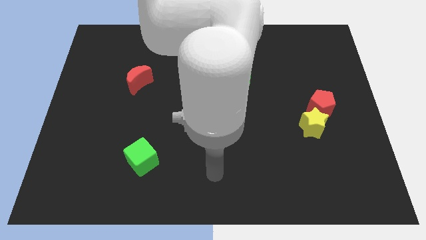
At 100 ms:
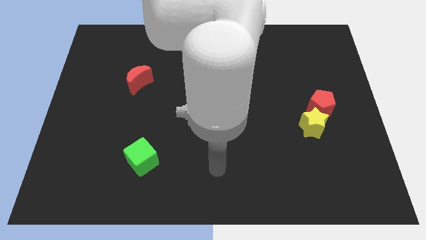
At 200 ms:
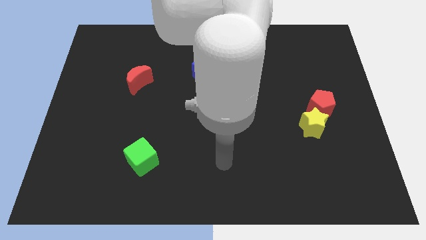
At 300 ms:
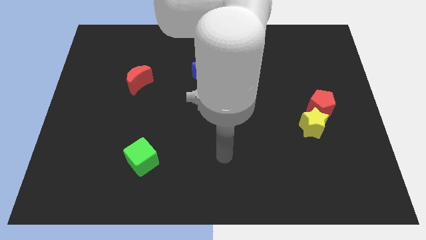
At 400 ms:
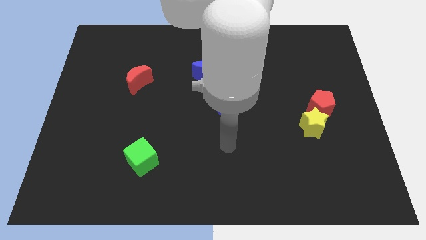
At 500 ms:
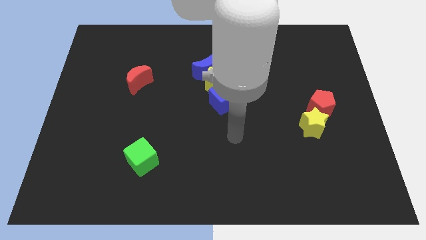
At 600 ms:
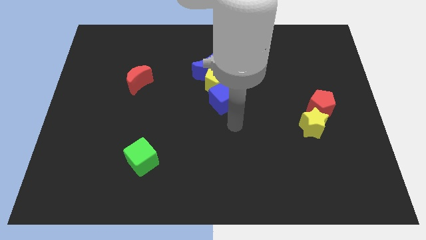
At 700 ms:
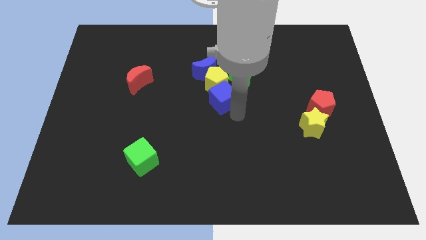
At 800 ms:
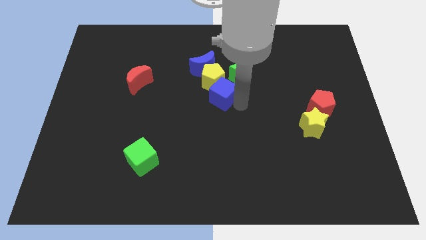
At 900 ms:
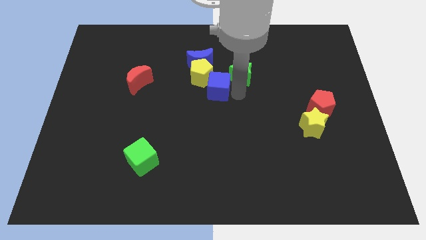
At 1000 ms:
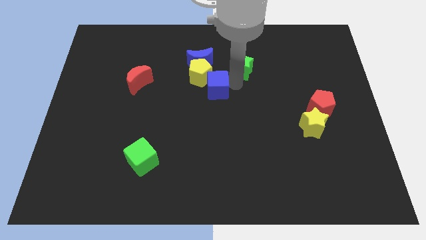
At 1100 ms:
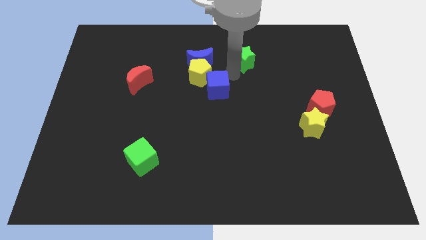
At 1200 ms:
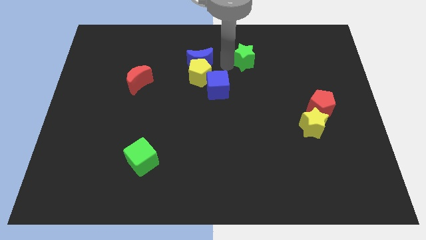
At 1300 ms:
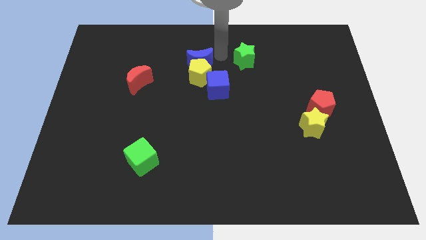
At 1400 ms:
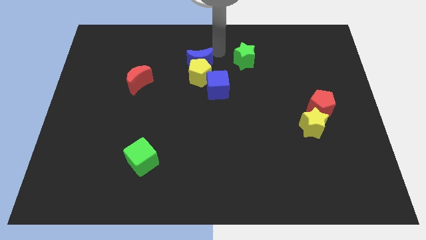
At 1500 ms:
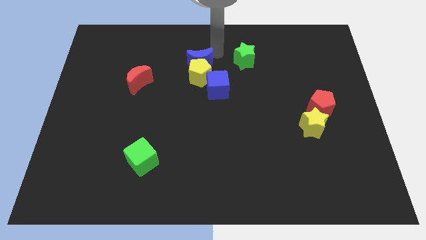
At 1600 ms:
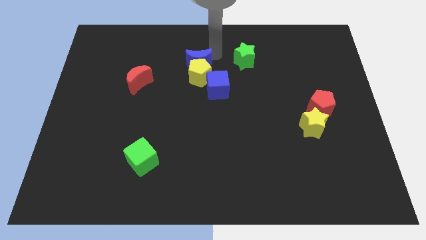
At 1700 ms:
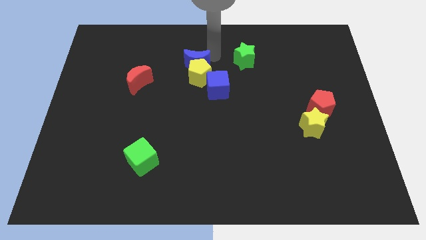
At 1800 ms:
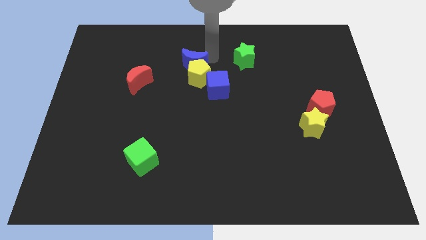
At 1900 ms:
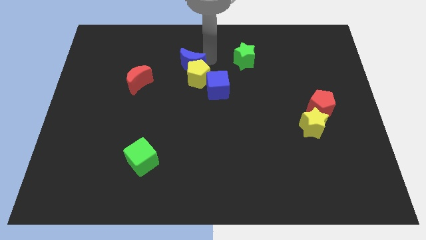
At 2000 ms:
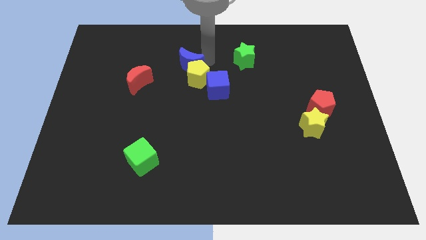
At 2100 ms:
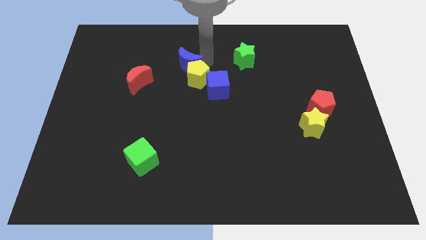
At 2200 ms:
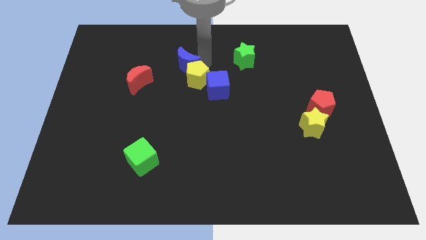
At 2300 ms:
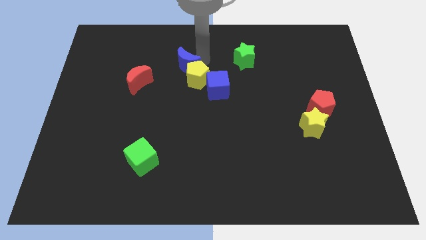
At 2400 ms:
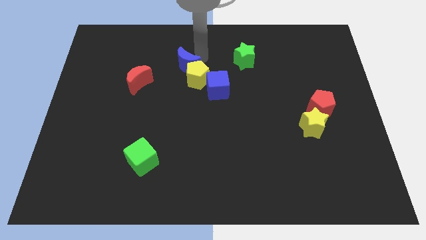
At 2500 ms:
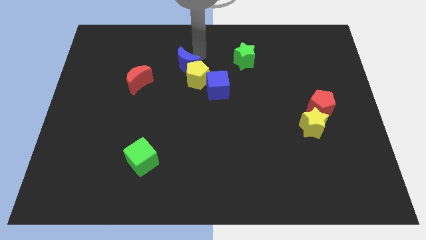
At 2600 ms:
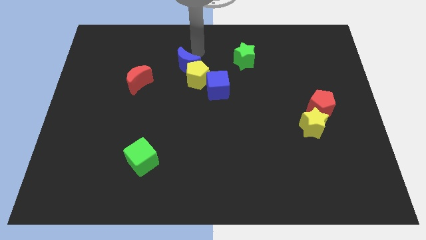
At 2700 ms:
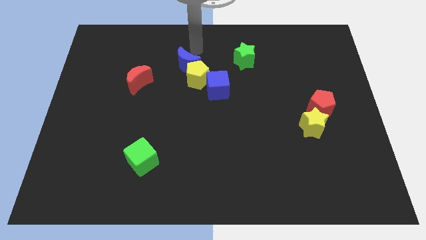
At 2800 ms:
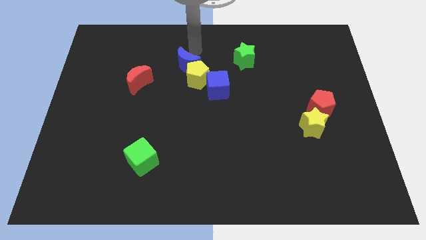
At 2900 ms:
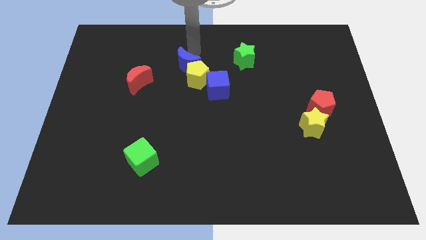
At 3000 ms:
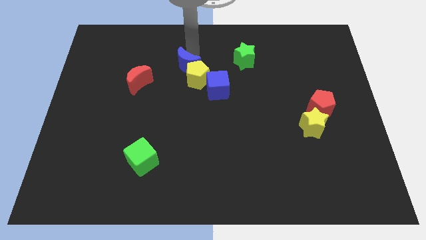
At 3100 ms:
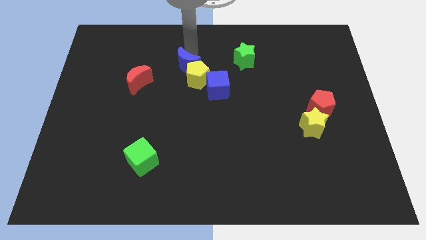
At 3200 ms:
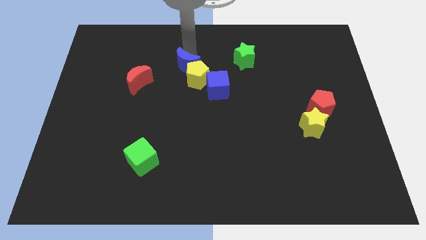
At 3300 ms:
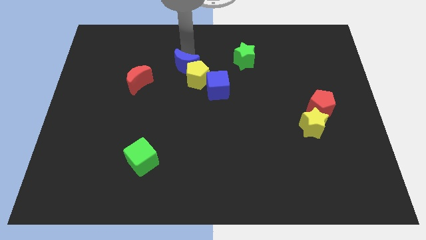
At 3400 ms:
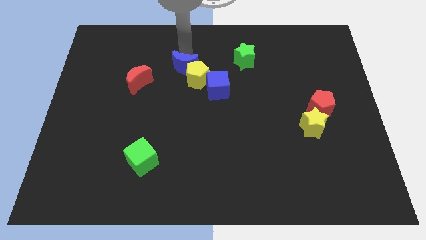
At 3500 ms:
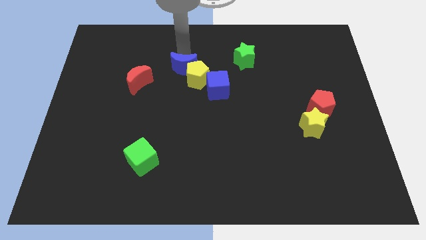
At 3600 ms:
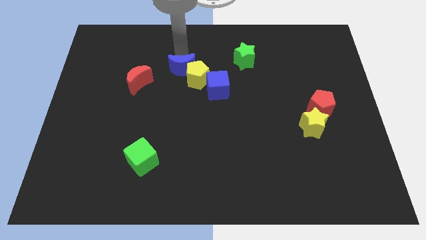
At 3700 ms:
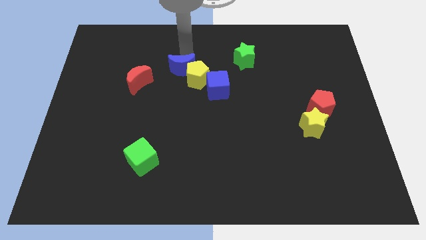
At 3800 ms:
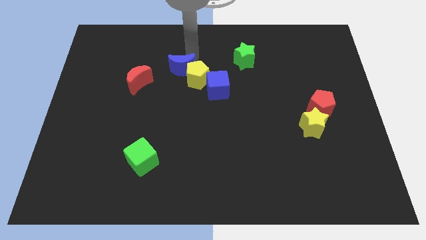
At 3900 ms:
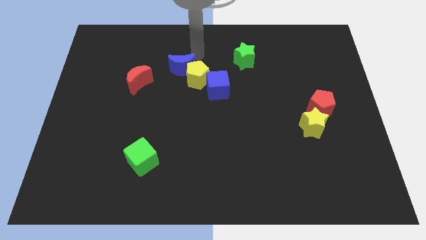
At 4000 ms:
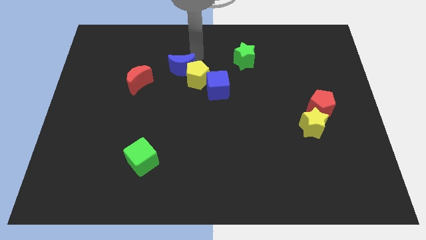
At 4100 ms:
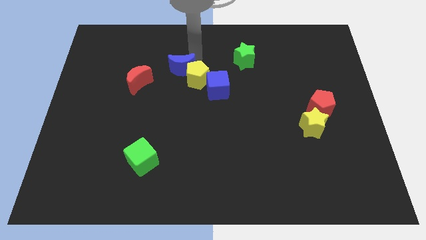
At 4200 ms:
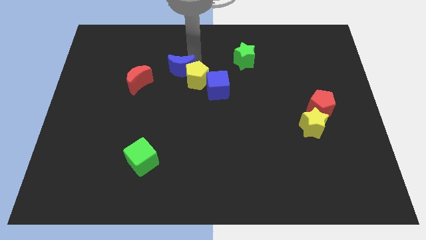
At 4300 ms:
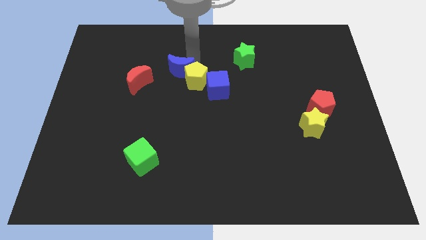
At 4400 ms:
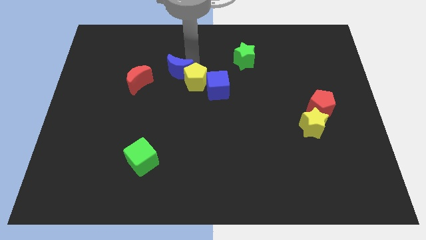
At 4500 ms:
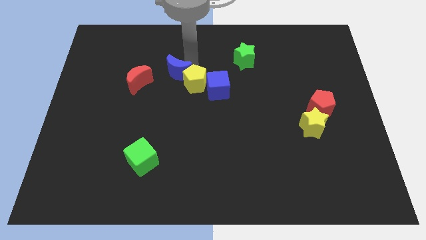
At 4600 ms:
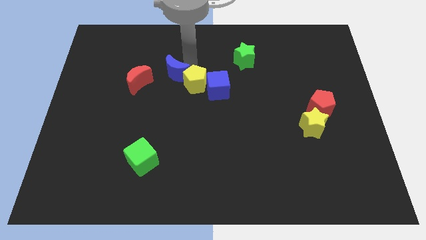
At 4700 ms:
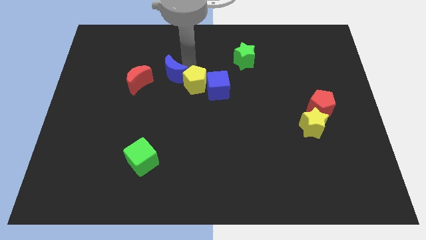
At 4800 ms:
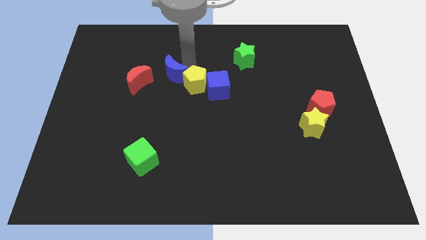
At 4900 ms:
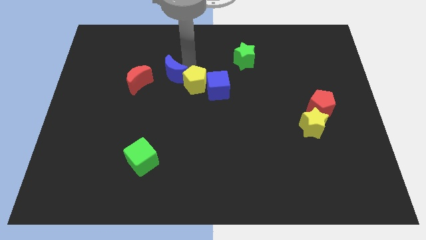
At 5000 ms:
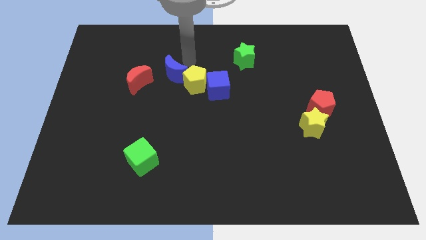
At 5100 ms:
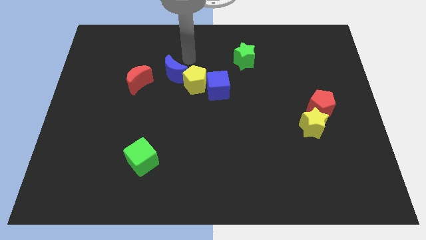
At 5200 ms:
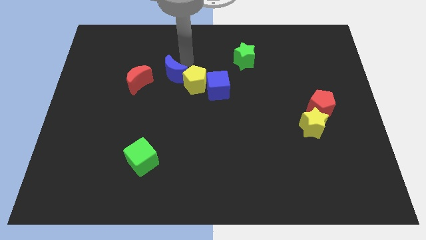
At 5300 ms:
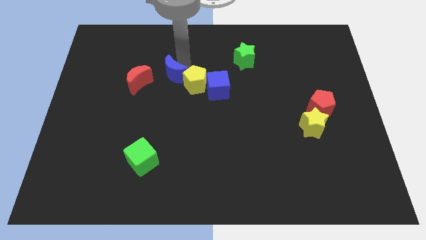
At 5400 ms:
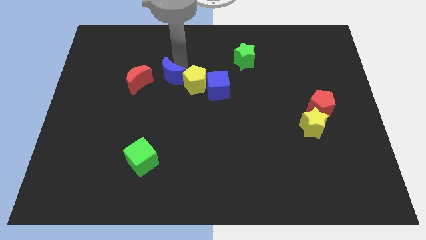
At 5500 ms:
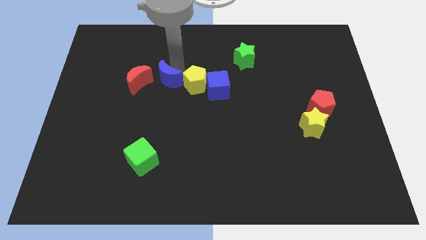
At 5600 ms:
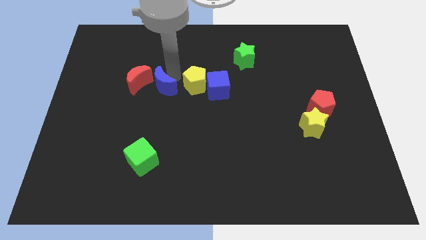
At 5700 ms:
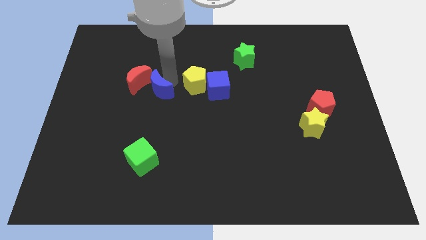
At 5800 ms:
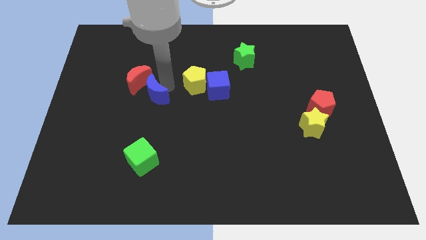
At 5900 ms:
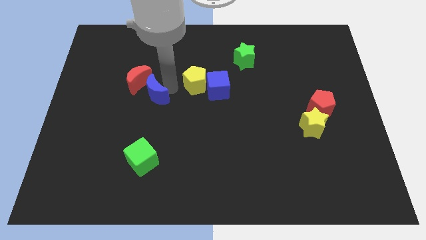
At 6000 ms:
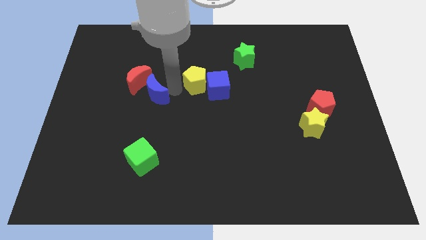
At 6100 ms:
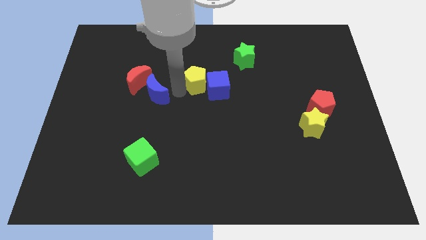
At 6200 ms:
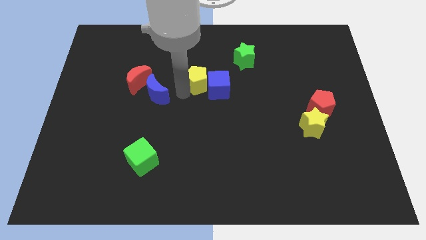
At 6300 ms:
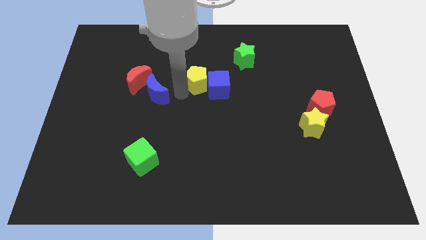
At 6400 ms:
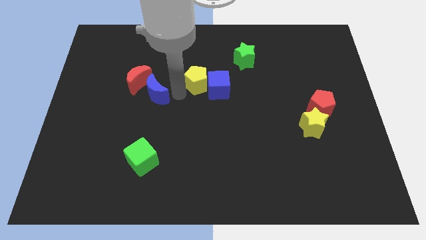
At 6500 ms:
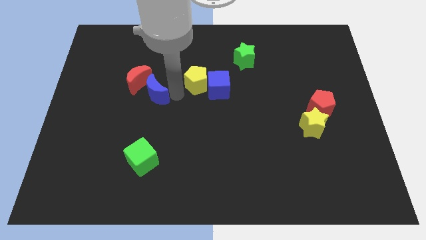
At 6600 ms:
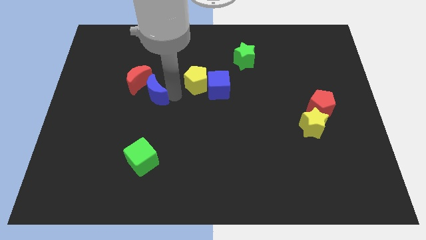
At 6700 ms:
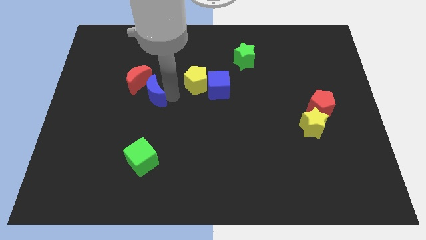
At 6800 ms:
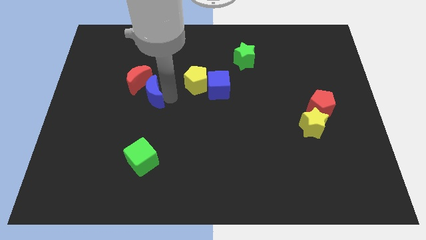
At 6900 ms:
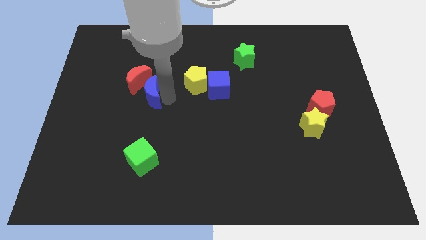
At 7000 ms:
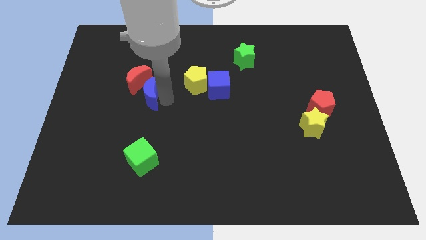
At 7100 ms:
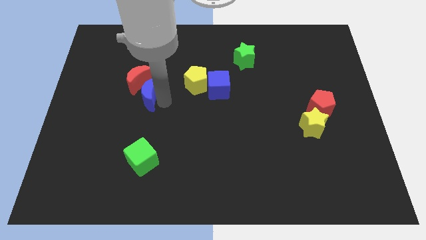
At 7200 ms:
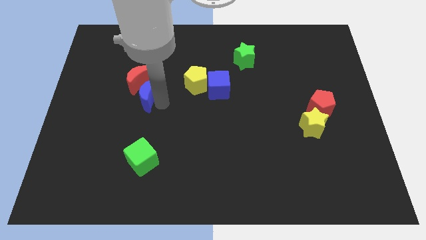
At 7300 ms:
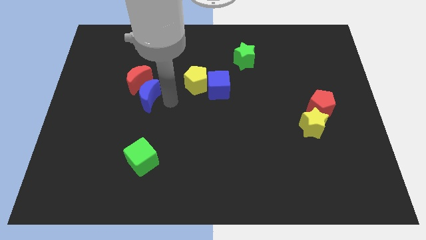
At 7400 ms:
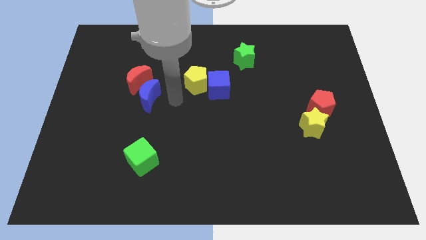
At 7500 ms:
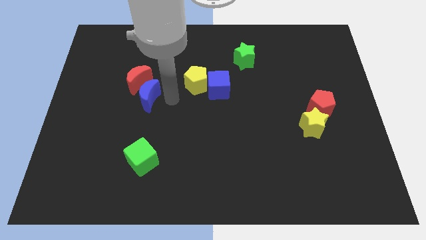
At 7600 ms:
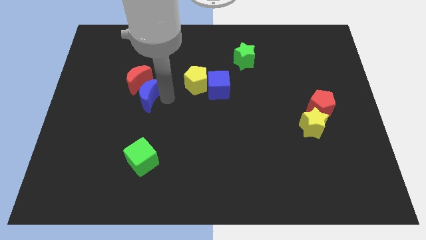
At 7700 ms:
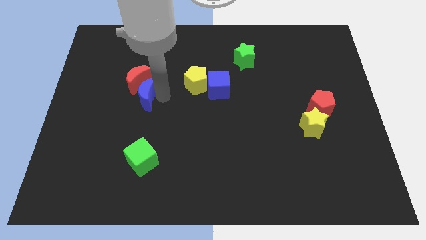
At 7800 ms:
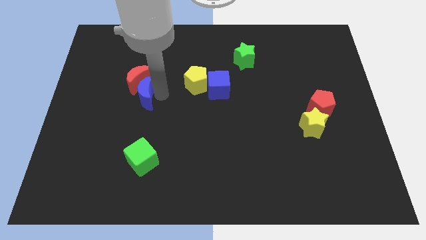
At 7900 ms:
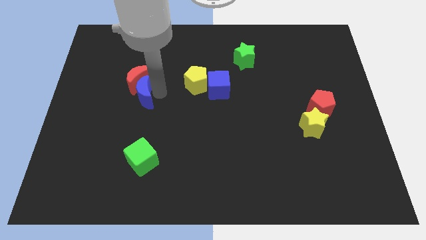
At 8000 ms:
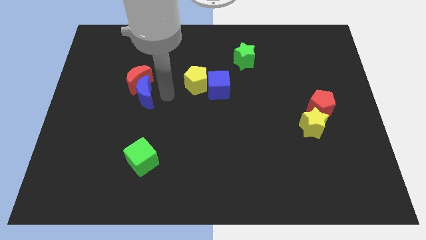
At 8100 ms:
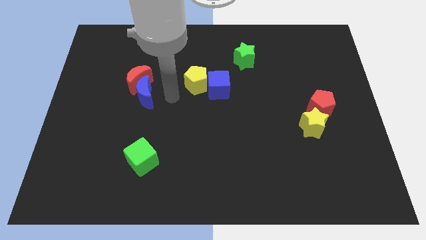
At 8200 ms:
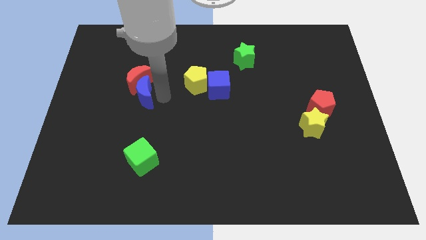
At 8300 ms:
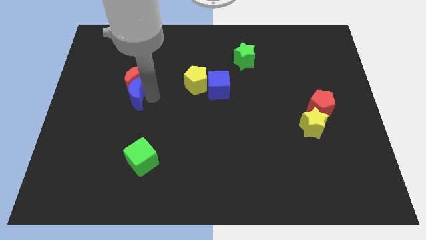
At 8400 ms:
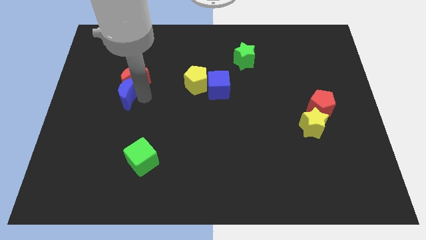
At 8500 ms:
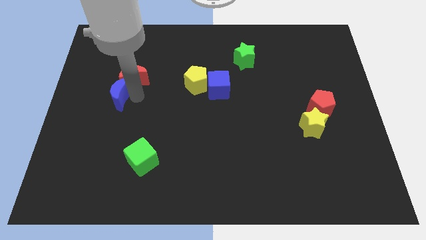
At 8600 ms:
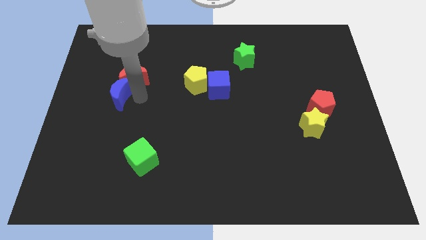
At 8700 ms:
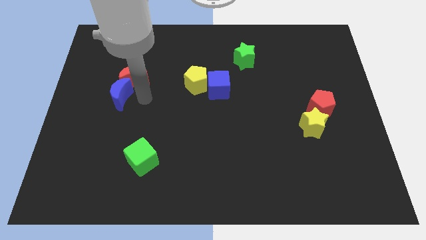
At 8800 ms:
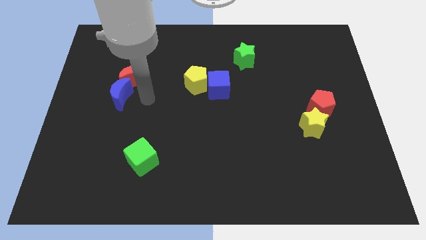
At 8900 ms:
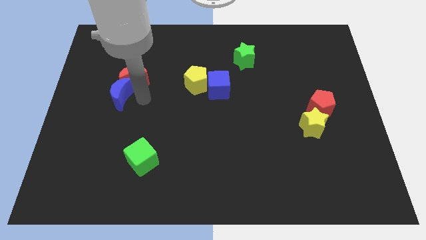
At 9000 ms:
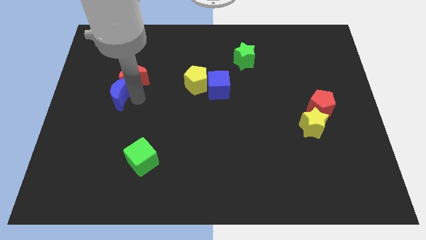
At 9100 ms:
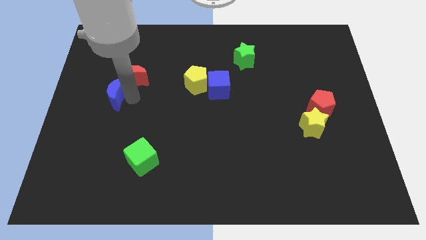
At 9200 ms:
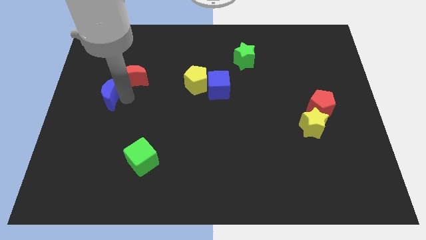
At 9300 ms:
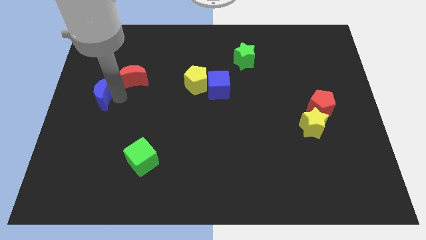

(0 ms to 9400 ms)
push the blue moon to the center left
